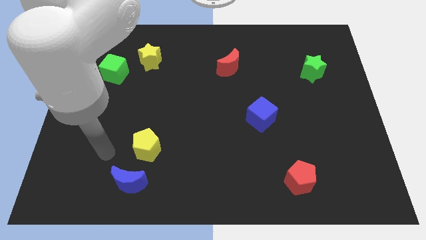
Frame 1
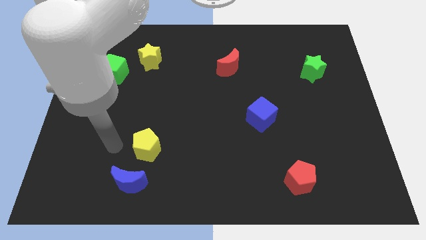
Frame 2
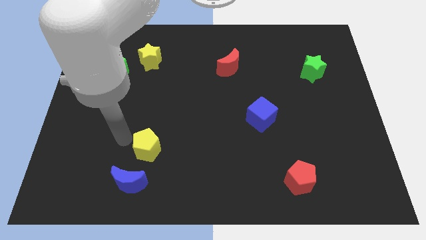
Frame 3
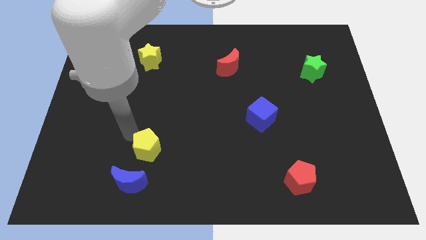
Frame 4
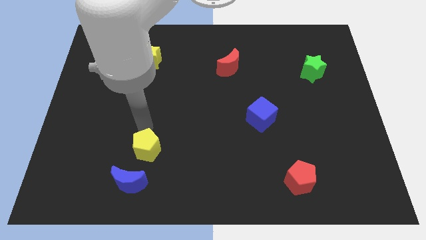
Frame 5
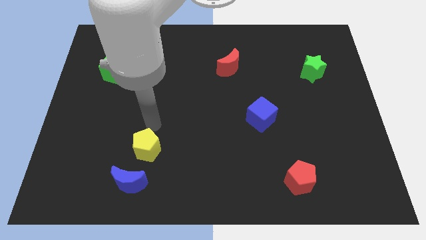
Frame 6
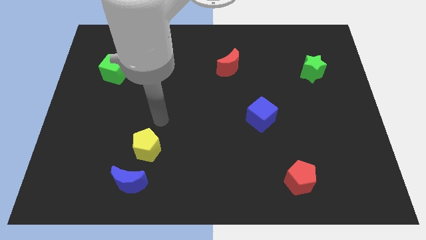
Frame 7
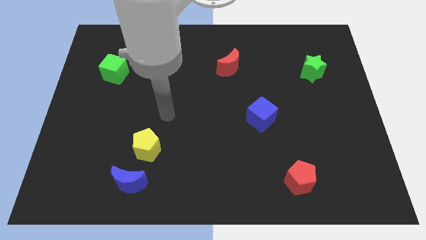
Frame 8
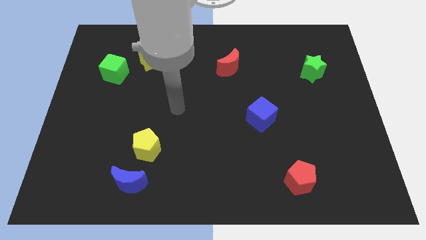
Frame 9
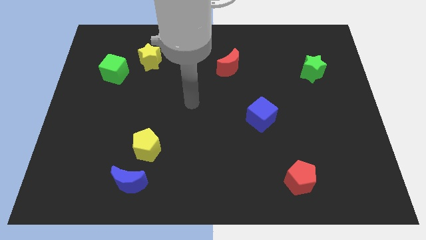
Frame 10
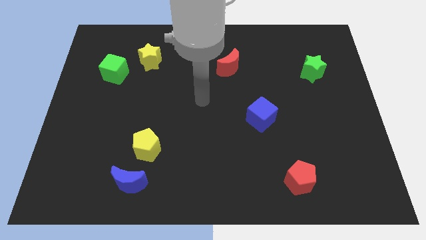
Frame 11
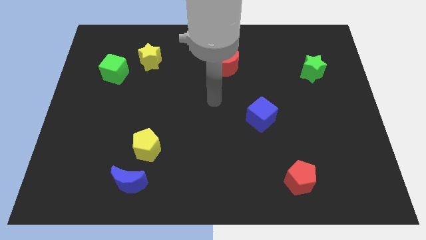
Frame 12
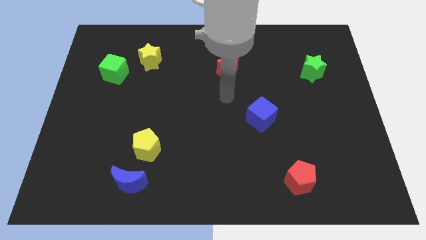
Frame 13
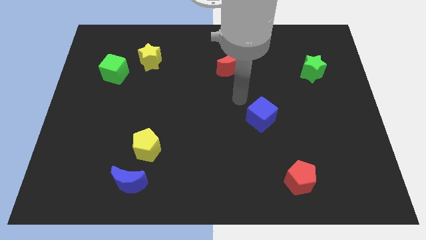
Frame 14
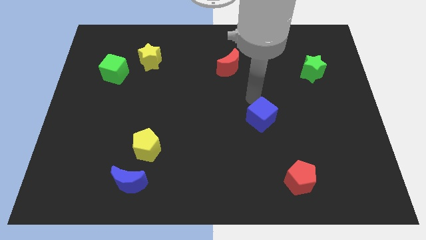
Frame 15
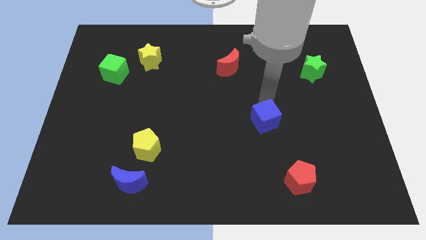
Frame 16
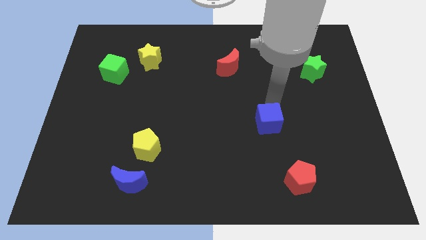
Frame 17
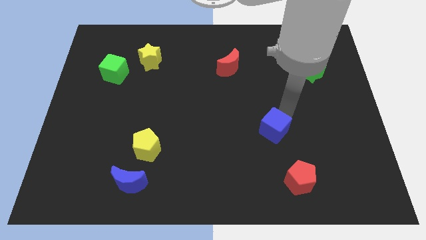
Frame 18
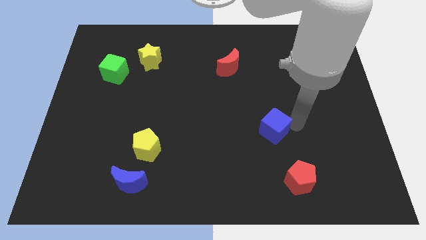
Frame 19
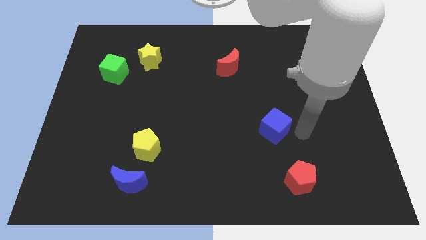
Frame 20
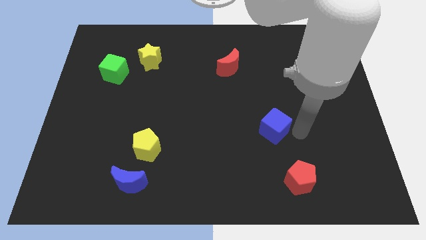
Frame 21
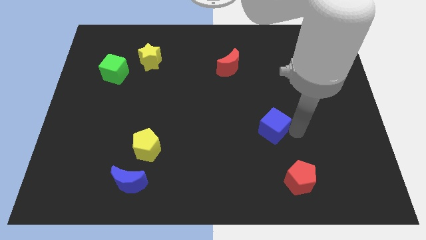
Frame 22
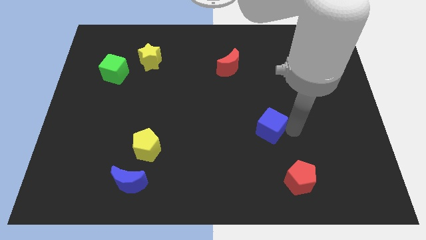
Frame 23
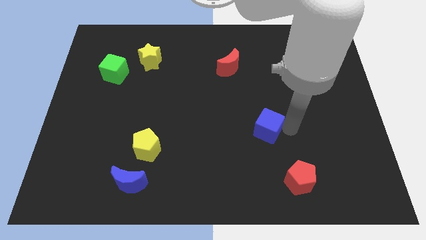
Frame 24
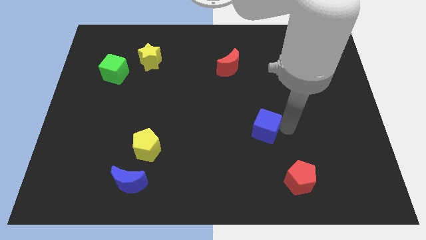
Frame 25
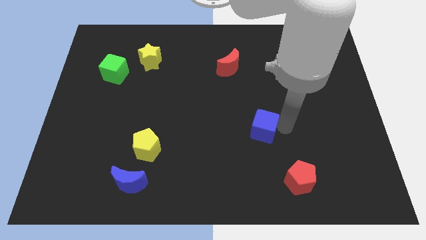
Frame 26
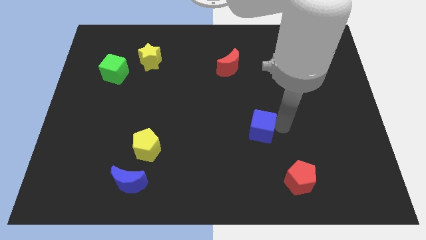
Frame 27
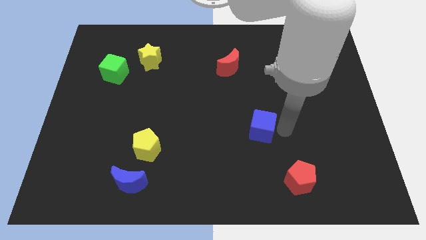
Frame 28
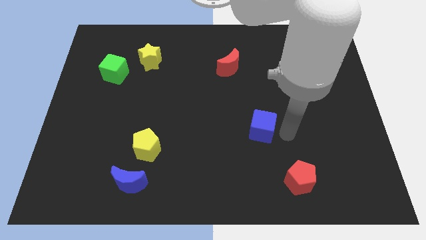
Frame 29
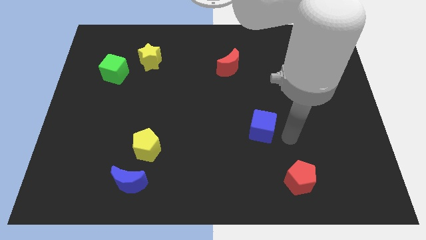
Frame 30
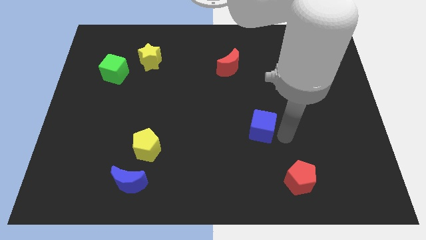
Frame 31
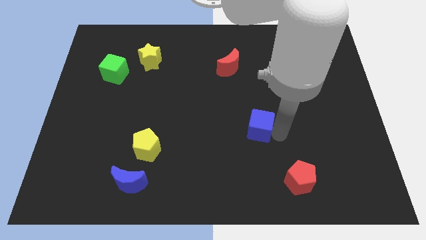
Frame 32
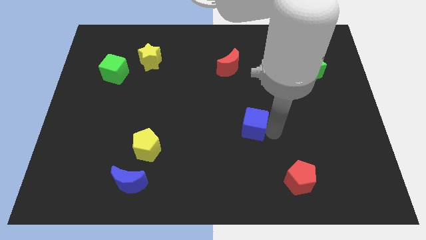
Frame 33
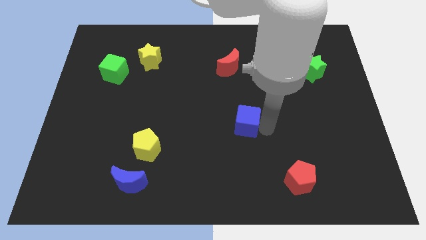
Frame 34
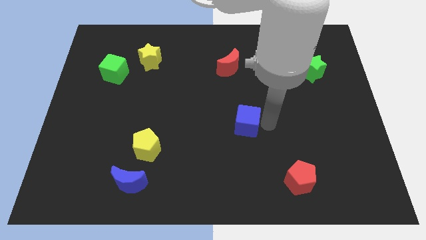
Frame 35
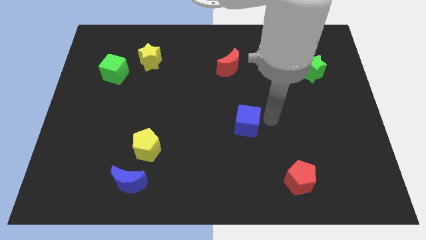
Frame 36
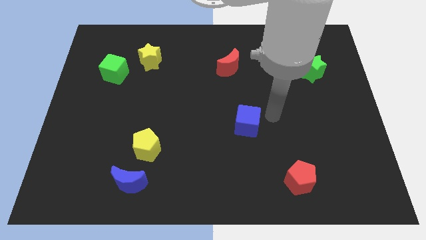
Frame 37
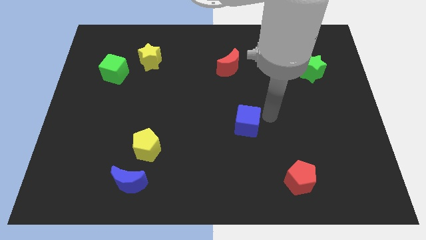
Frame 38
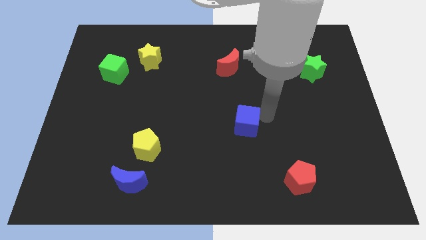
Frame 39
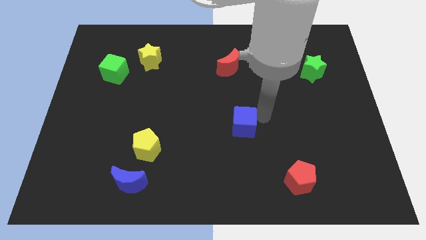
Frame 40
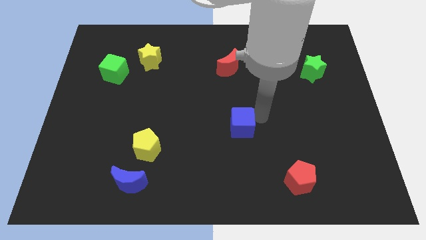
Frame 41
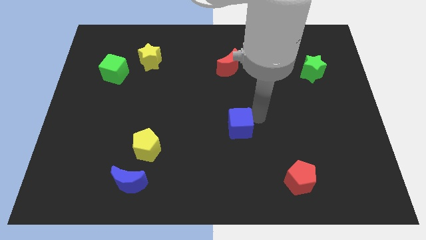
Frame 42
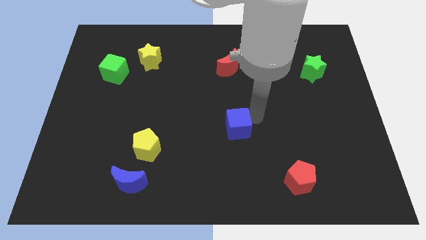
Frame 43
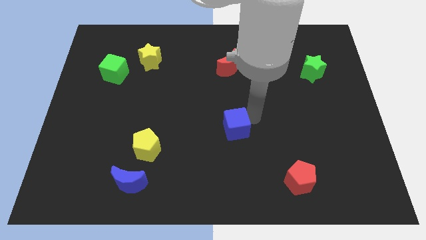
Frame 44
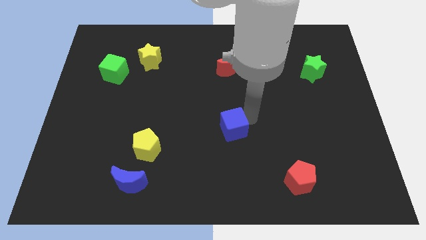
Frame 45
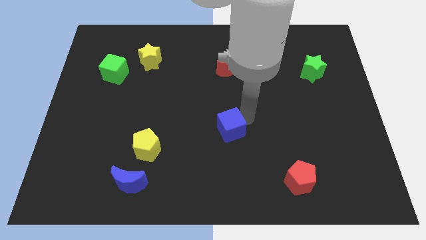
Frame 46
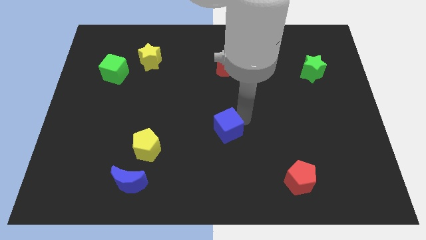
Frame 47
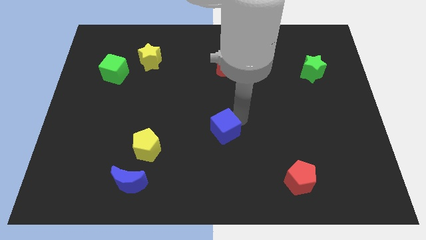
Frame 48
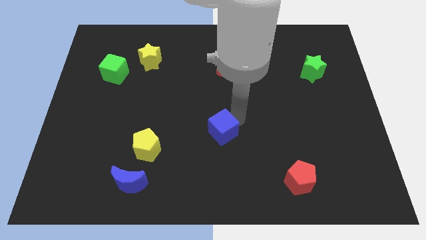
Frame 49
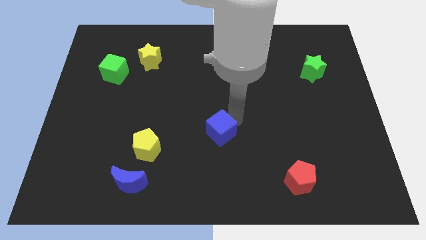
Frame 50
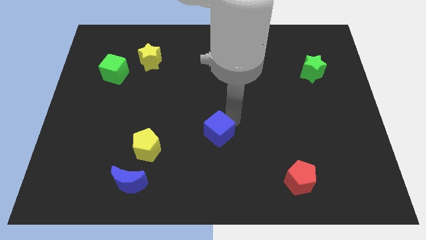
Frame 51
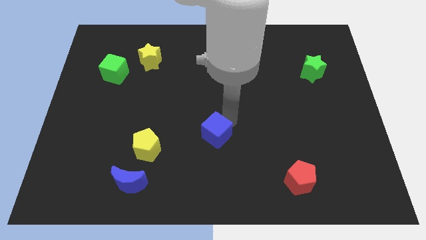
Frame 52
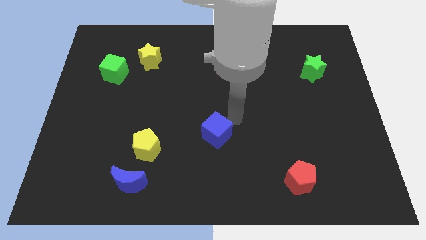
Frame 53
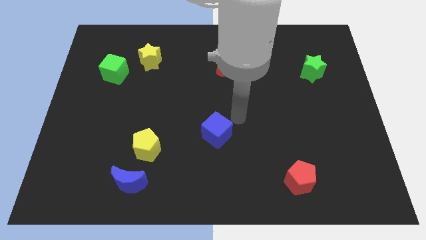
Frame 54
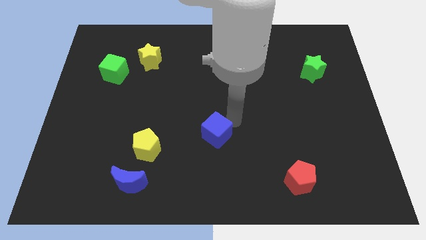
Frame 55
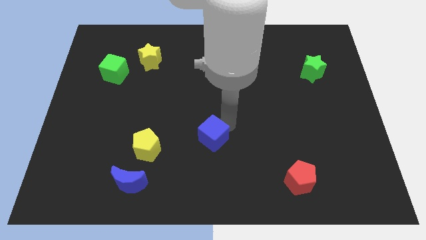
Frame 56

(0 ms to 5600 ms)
push the blue cube right of the yellow pentagon

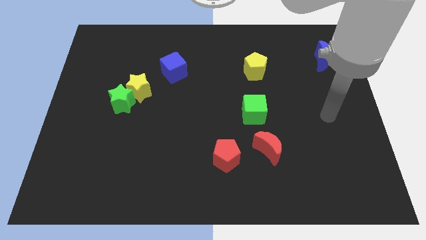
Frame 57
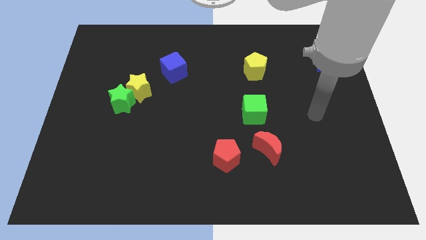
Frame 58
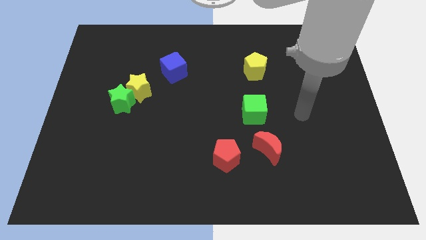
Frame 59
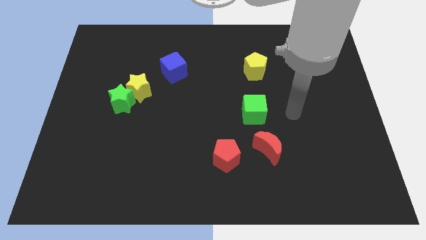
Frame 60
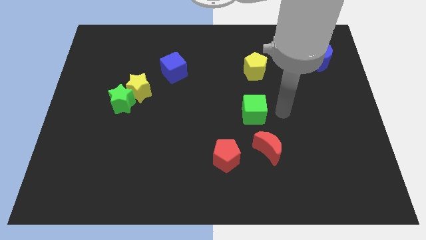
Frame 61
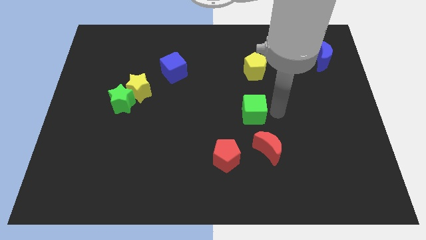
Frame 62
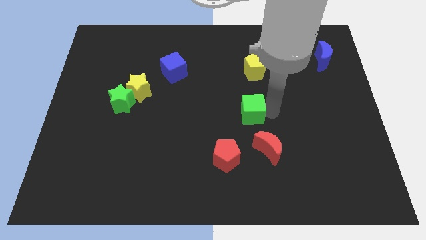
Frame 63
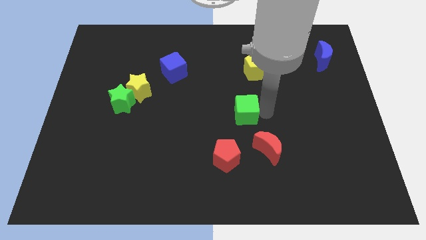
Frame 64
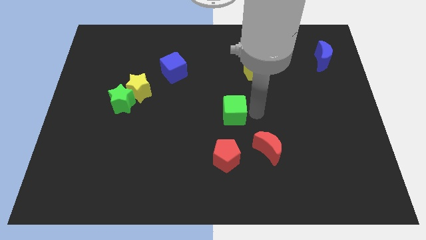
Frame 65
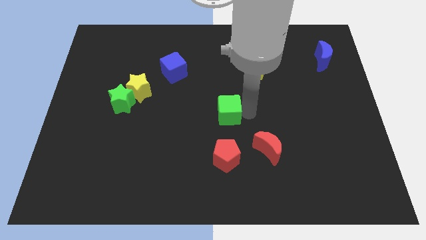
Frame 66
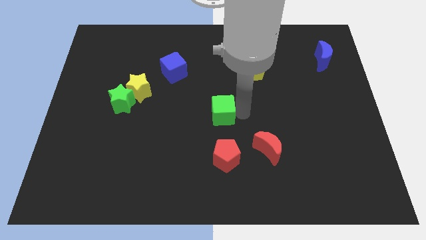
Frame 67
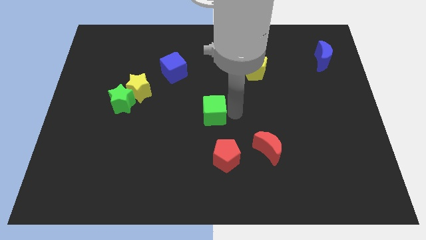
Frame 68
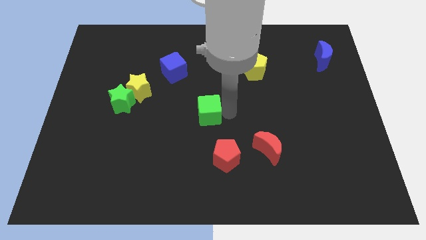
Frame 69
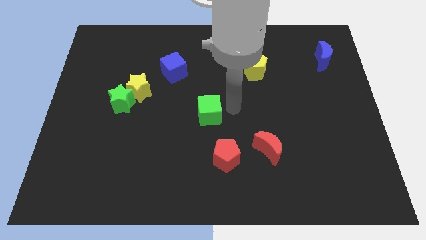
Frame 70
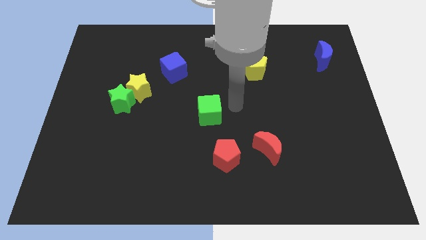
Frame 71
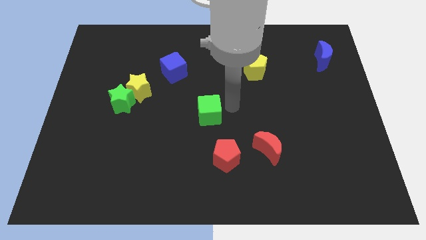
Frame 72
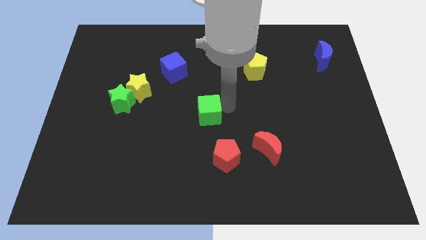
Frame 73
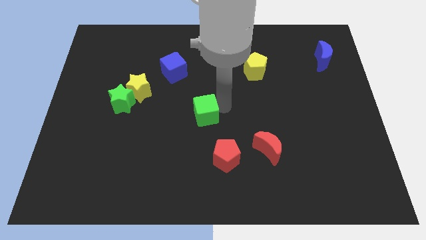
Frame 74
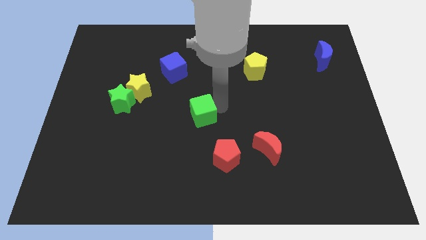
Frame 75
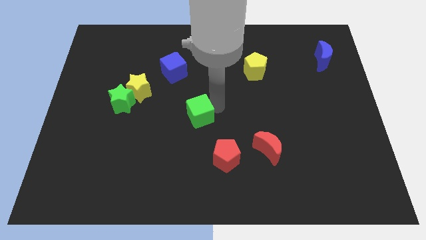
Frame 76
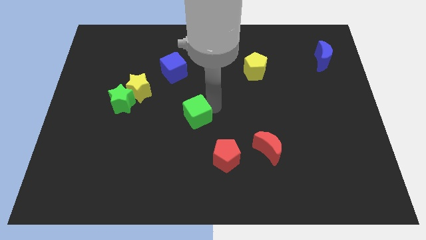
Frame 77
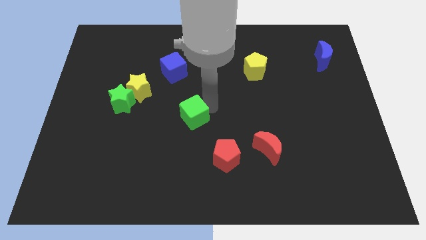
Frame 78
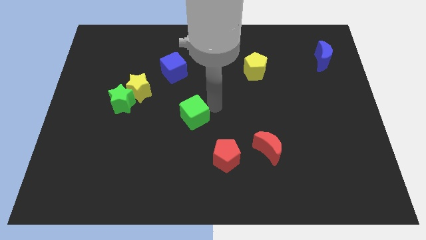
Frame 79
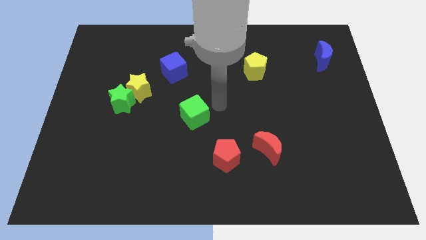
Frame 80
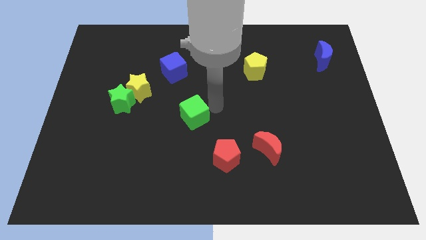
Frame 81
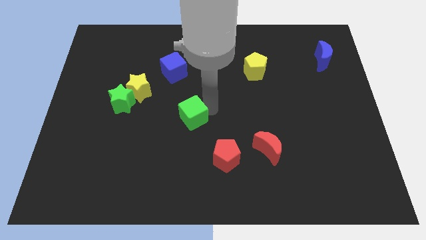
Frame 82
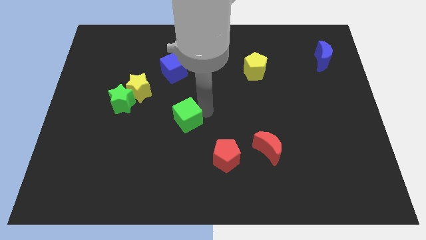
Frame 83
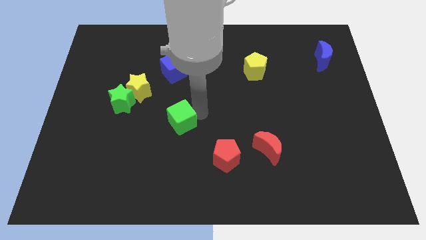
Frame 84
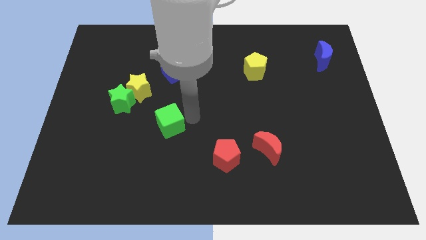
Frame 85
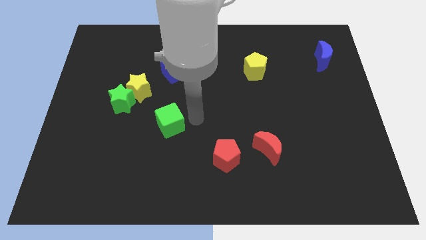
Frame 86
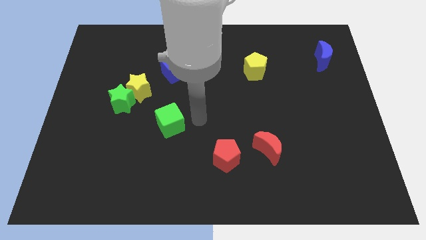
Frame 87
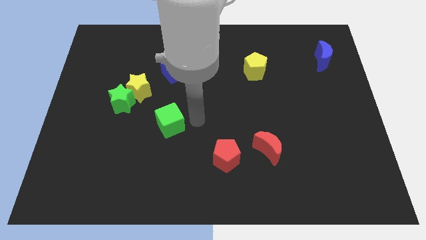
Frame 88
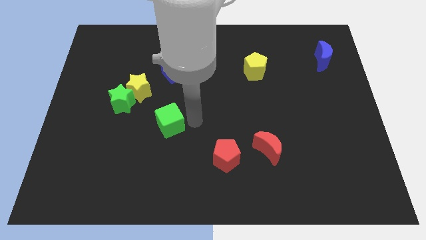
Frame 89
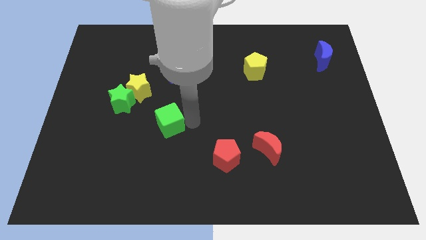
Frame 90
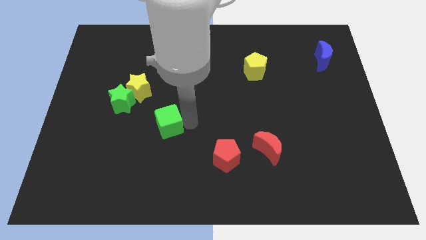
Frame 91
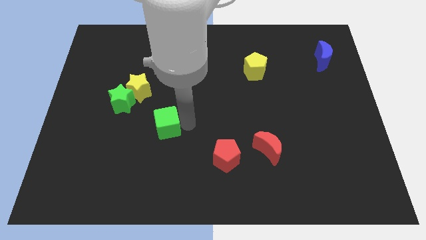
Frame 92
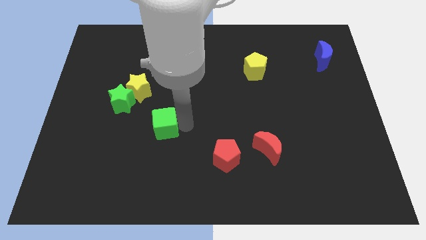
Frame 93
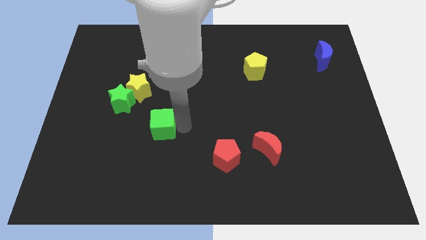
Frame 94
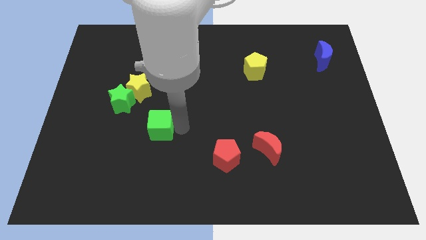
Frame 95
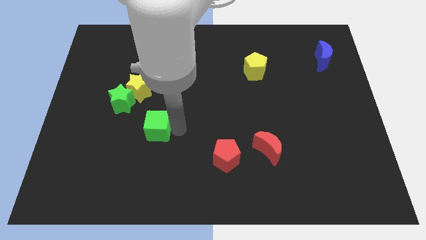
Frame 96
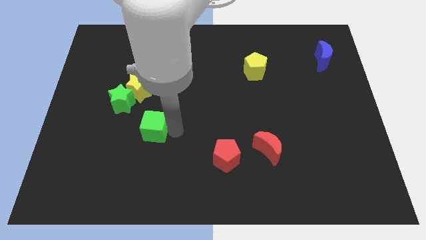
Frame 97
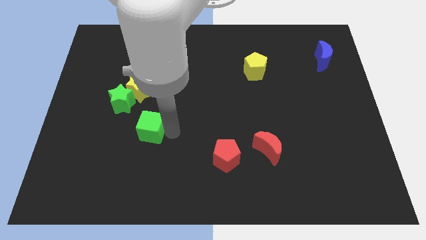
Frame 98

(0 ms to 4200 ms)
put the green cube to the bottom of the yellow star
